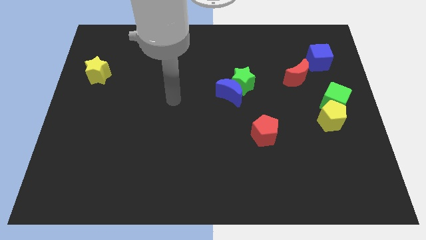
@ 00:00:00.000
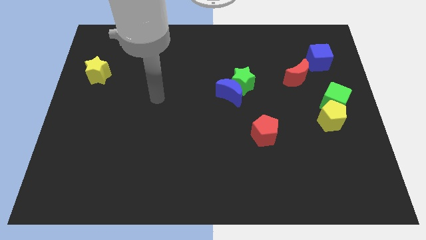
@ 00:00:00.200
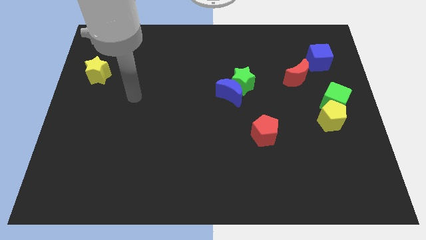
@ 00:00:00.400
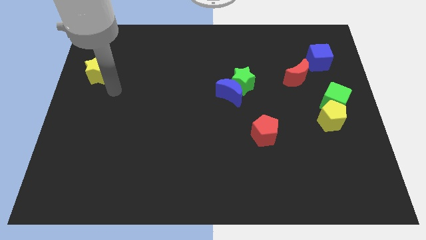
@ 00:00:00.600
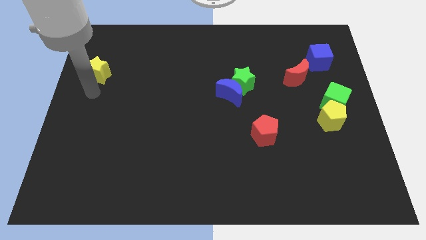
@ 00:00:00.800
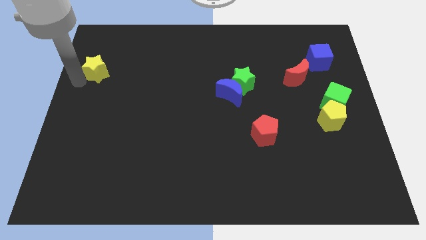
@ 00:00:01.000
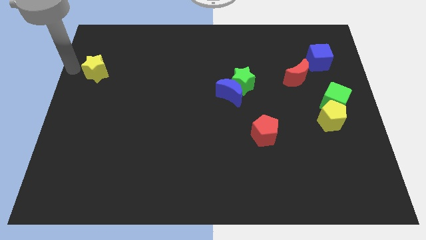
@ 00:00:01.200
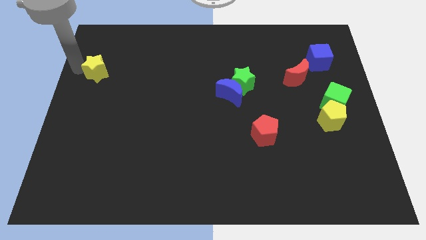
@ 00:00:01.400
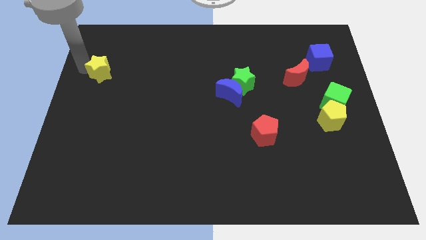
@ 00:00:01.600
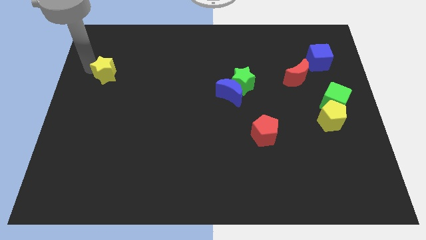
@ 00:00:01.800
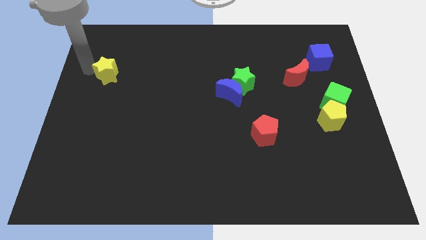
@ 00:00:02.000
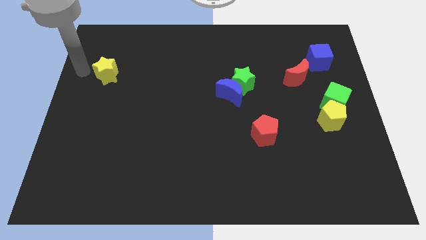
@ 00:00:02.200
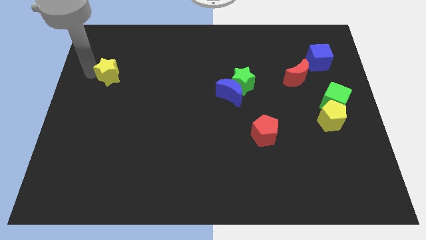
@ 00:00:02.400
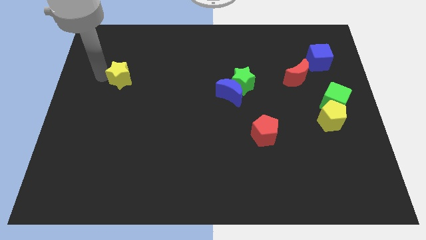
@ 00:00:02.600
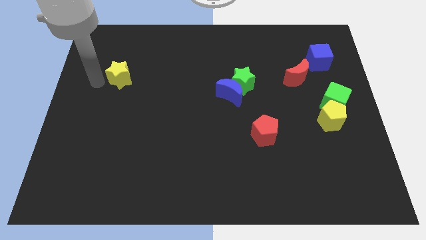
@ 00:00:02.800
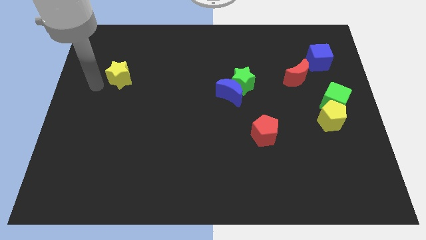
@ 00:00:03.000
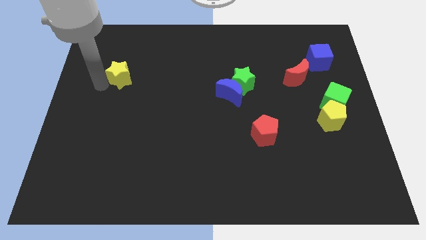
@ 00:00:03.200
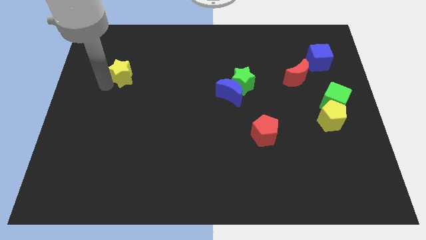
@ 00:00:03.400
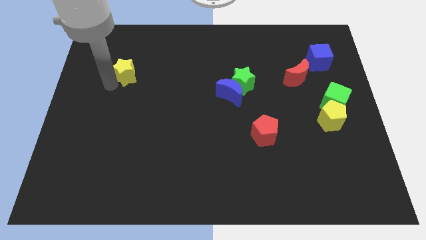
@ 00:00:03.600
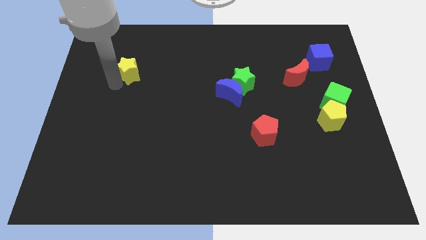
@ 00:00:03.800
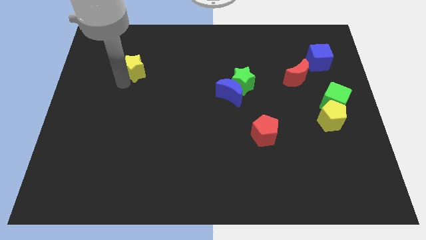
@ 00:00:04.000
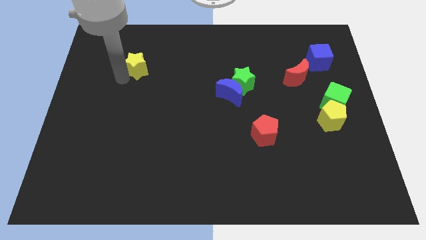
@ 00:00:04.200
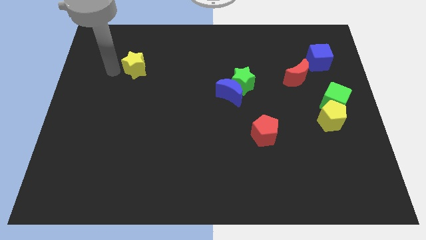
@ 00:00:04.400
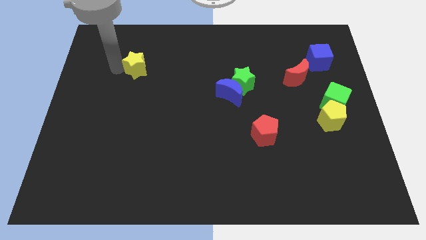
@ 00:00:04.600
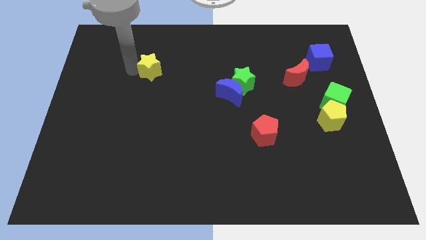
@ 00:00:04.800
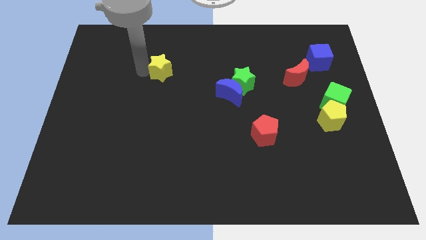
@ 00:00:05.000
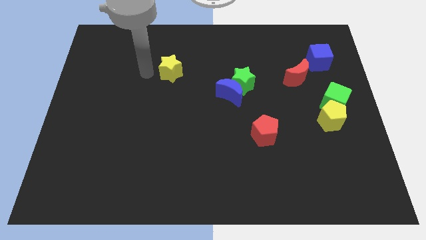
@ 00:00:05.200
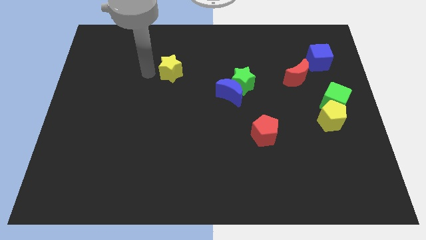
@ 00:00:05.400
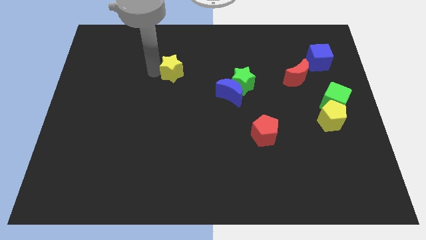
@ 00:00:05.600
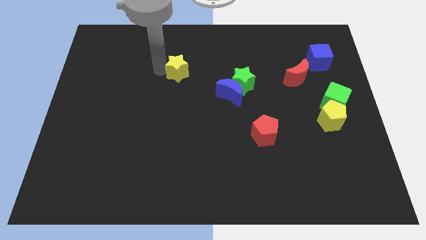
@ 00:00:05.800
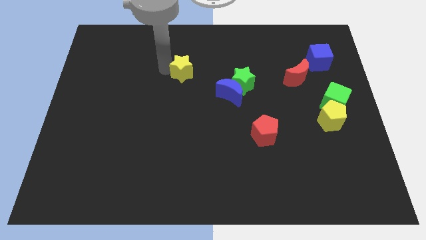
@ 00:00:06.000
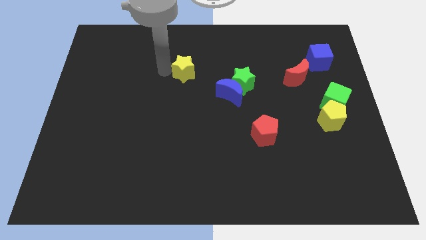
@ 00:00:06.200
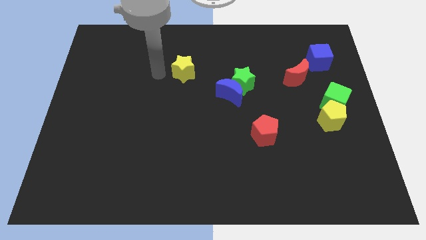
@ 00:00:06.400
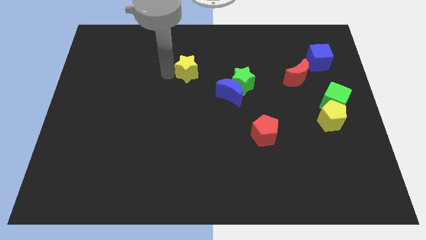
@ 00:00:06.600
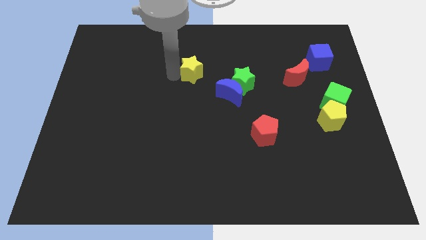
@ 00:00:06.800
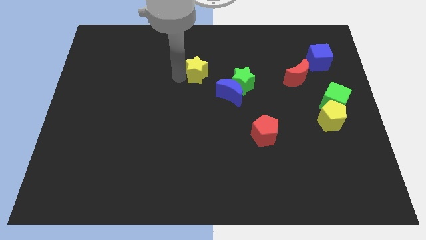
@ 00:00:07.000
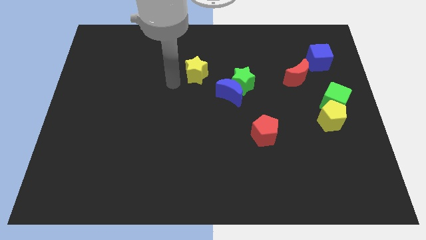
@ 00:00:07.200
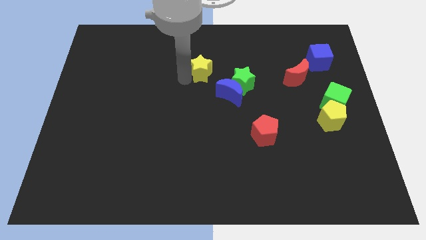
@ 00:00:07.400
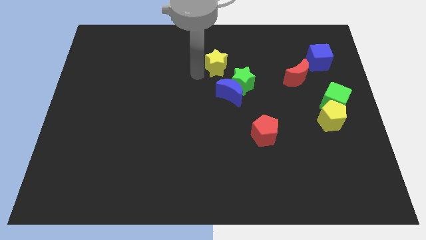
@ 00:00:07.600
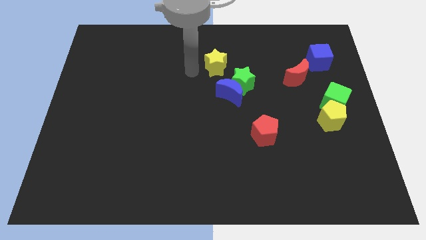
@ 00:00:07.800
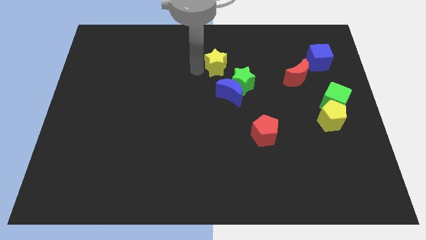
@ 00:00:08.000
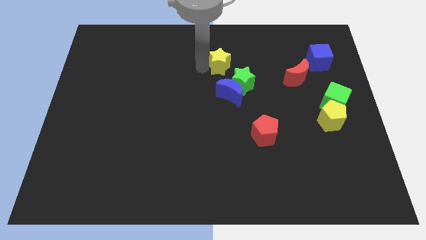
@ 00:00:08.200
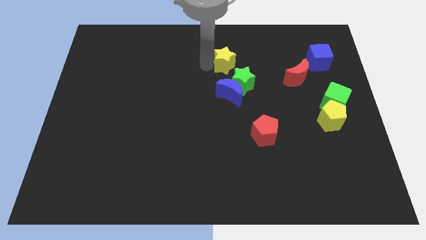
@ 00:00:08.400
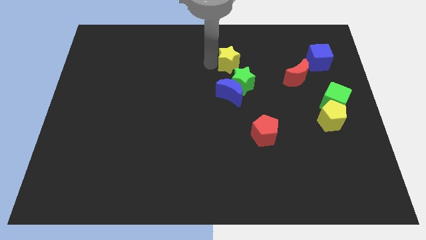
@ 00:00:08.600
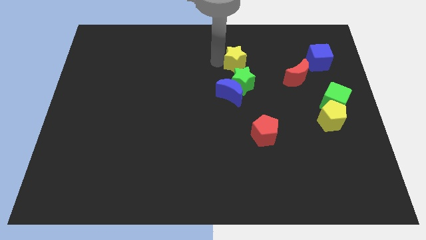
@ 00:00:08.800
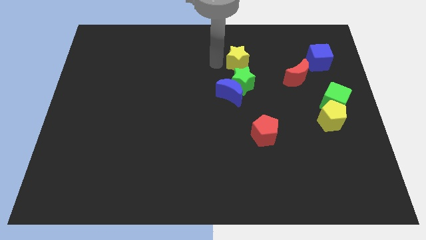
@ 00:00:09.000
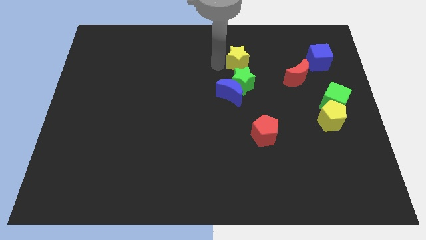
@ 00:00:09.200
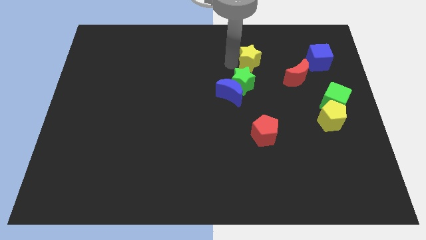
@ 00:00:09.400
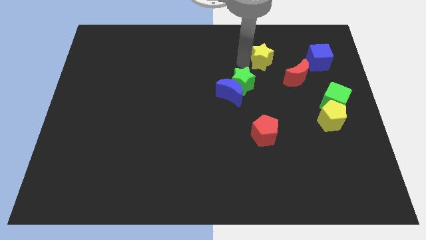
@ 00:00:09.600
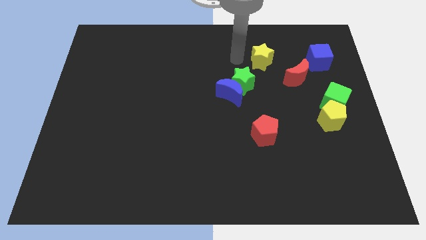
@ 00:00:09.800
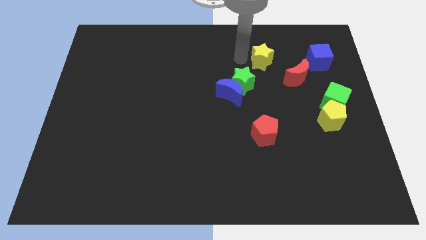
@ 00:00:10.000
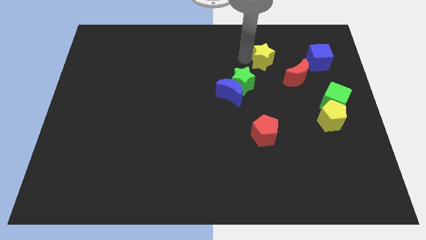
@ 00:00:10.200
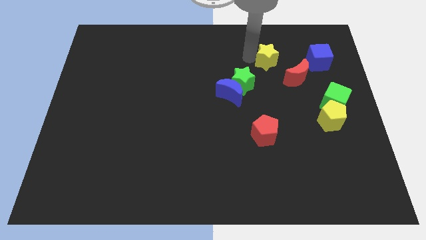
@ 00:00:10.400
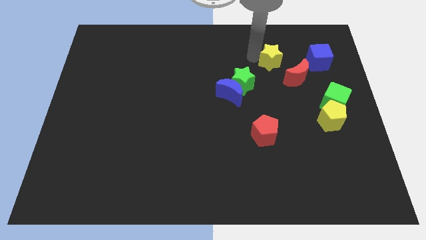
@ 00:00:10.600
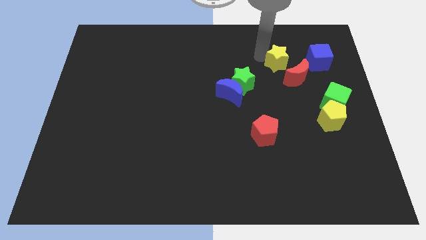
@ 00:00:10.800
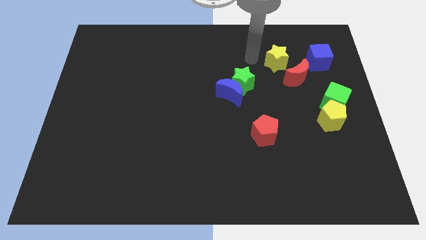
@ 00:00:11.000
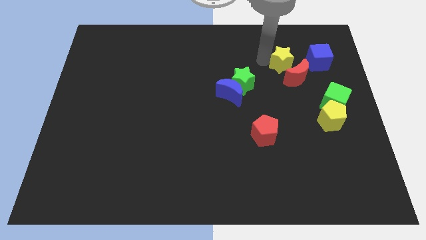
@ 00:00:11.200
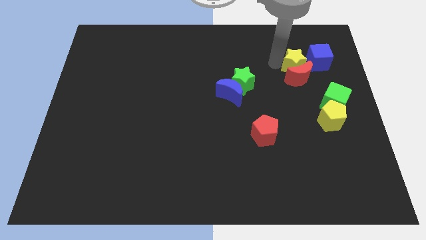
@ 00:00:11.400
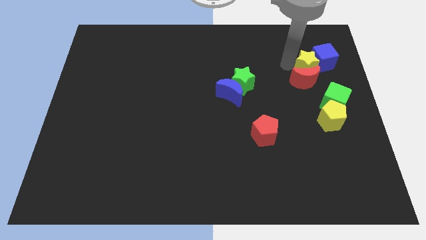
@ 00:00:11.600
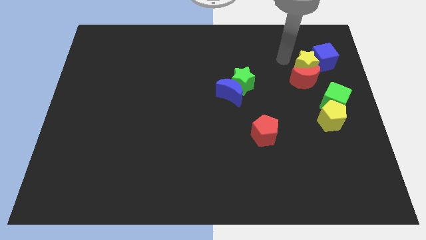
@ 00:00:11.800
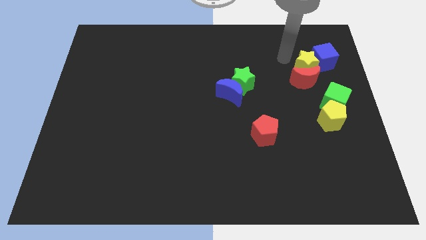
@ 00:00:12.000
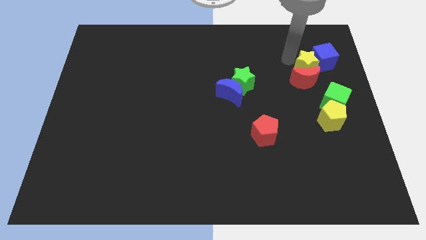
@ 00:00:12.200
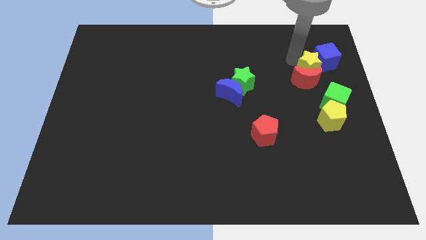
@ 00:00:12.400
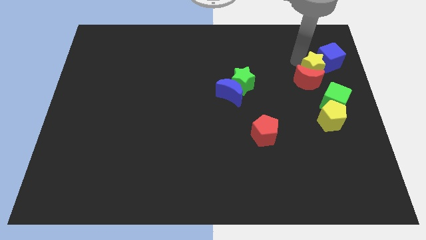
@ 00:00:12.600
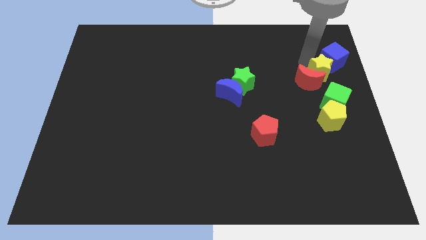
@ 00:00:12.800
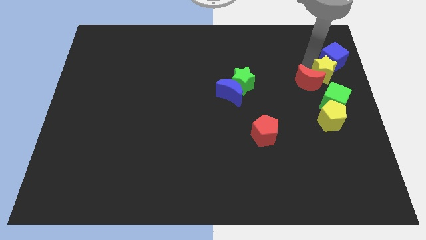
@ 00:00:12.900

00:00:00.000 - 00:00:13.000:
put the yellow star to the right side of the board
